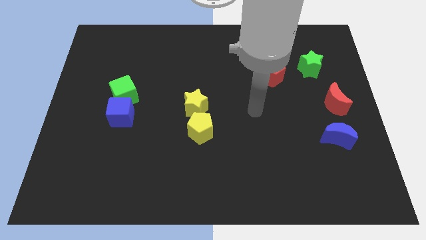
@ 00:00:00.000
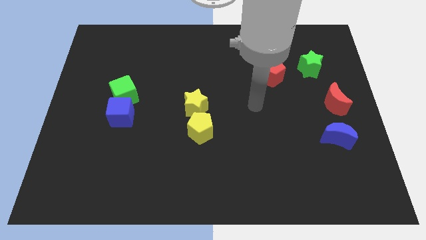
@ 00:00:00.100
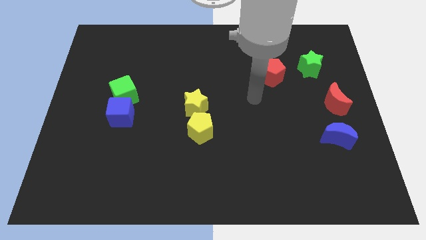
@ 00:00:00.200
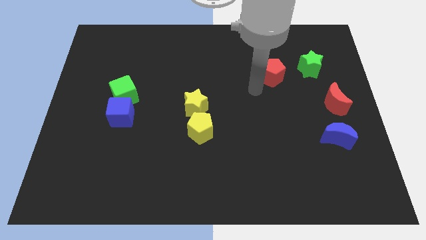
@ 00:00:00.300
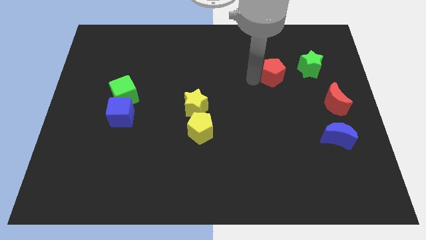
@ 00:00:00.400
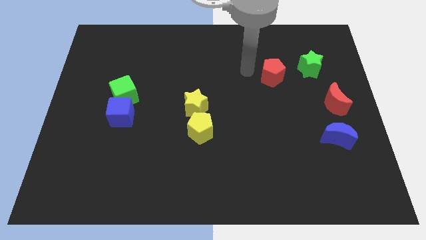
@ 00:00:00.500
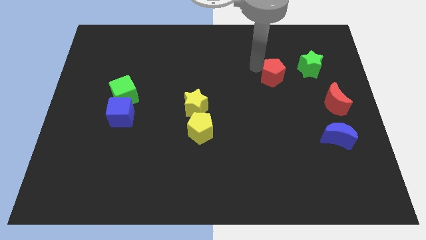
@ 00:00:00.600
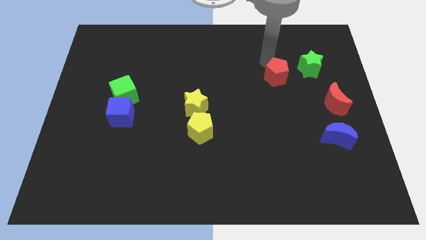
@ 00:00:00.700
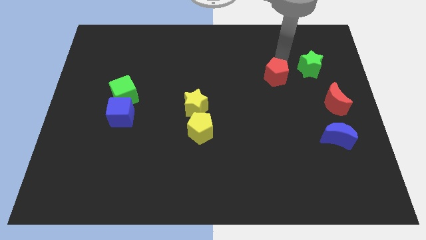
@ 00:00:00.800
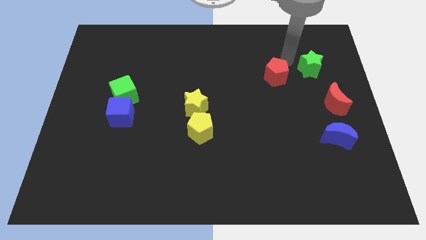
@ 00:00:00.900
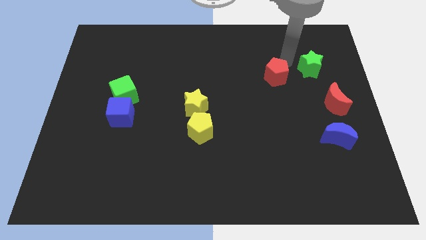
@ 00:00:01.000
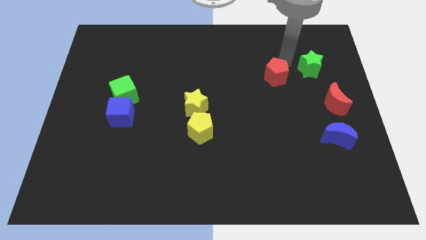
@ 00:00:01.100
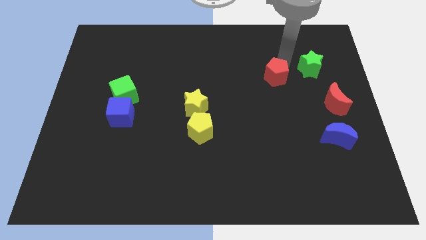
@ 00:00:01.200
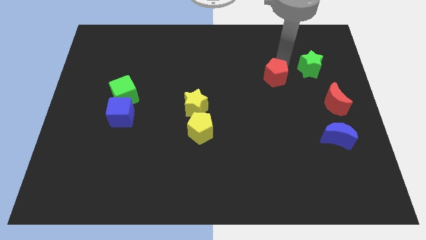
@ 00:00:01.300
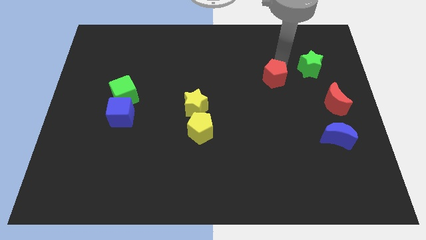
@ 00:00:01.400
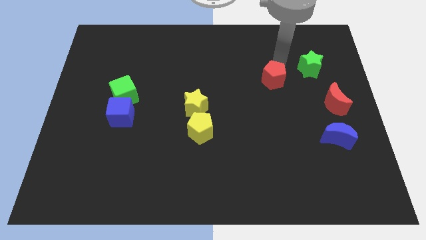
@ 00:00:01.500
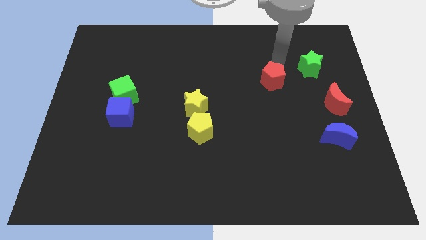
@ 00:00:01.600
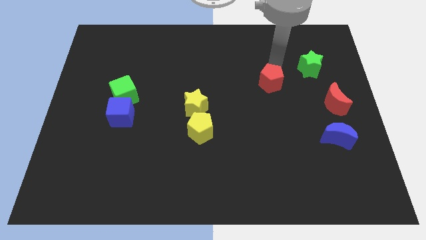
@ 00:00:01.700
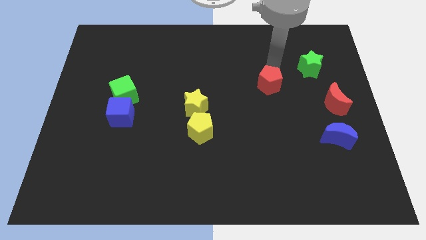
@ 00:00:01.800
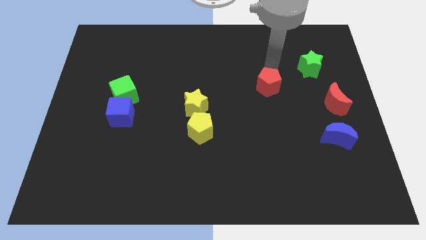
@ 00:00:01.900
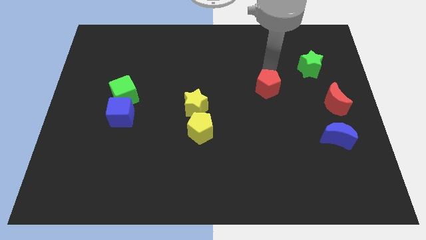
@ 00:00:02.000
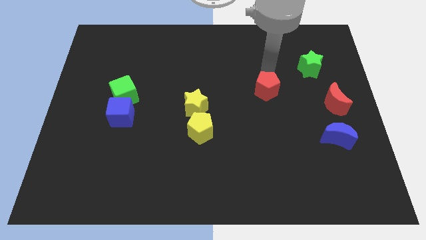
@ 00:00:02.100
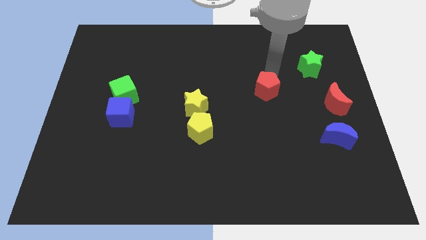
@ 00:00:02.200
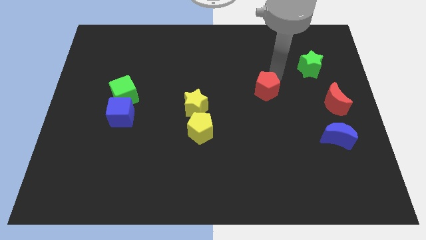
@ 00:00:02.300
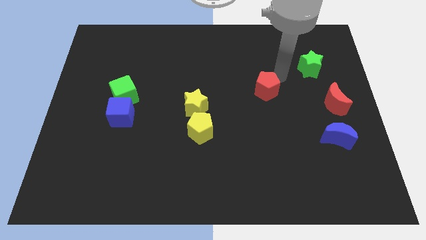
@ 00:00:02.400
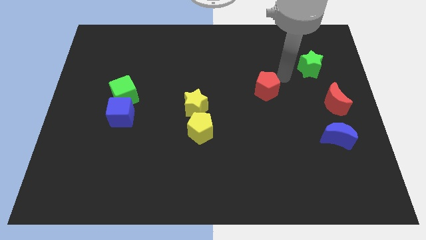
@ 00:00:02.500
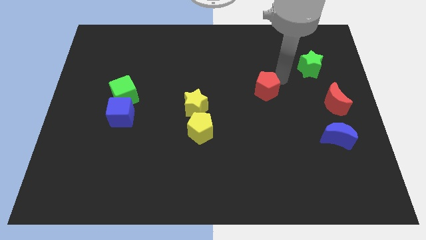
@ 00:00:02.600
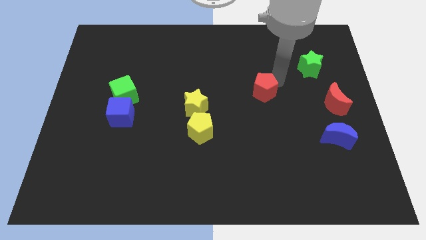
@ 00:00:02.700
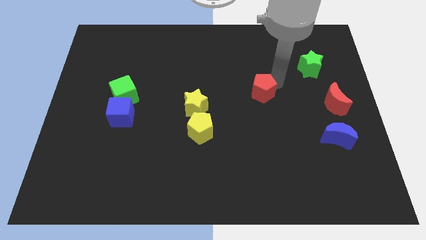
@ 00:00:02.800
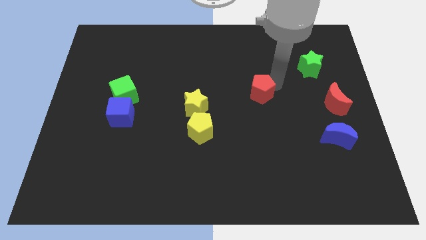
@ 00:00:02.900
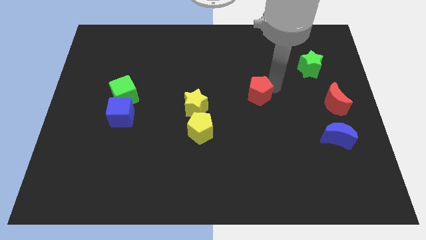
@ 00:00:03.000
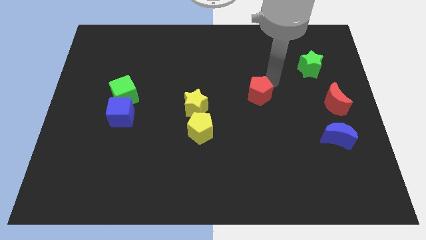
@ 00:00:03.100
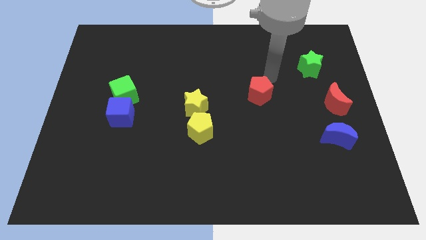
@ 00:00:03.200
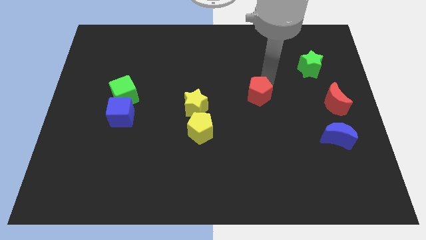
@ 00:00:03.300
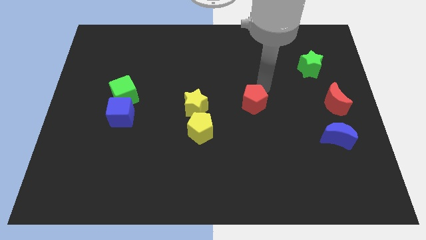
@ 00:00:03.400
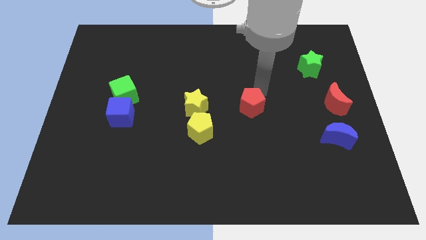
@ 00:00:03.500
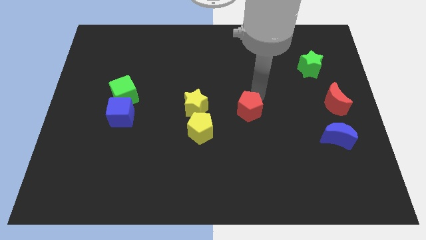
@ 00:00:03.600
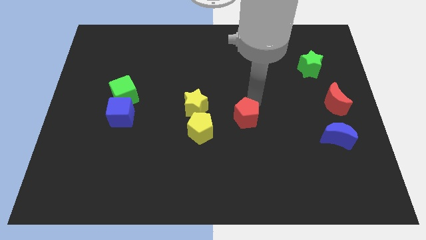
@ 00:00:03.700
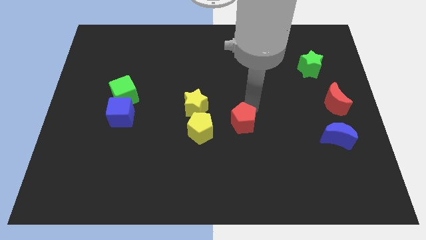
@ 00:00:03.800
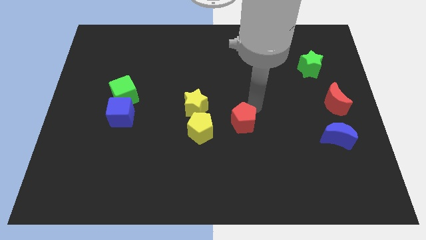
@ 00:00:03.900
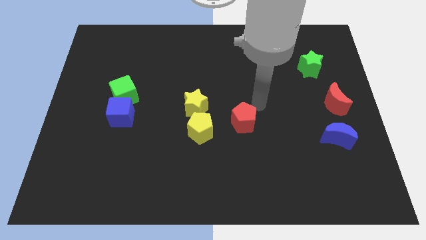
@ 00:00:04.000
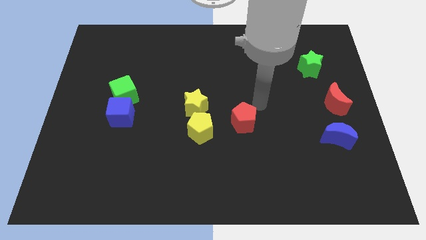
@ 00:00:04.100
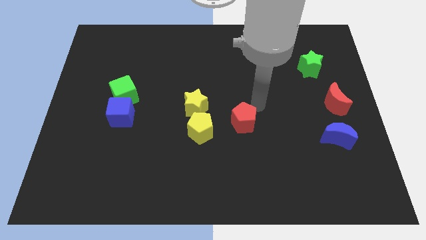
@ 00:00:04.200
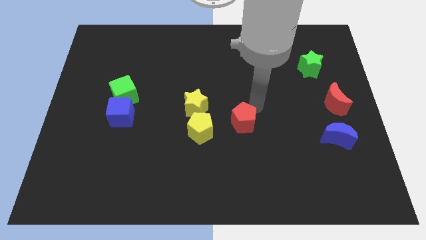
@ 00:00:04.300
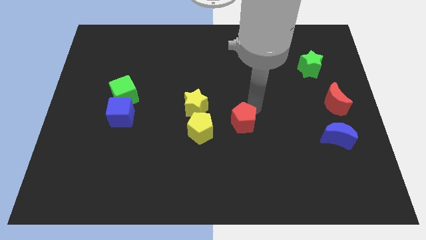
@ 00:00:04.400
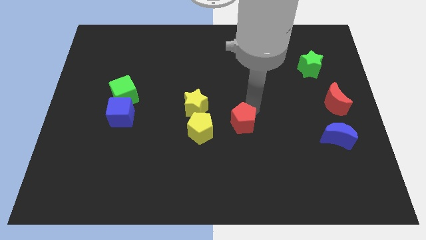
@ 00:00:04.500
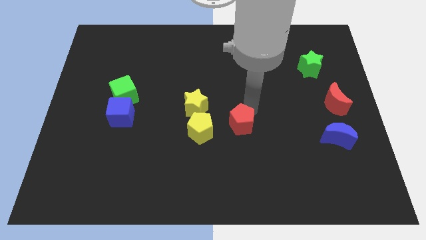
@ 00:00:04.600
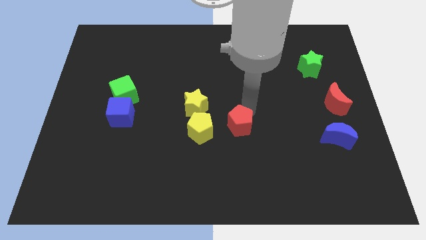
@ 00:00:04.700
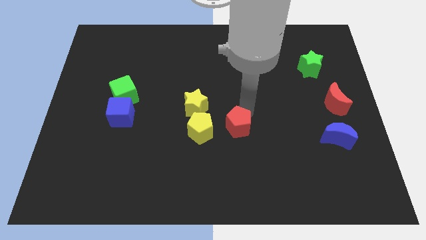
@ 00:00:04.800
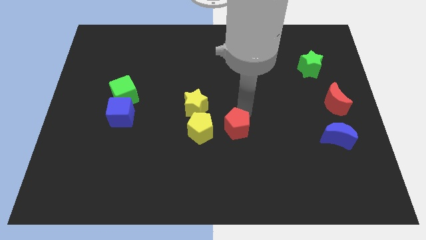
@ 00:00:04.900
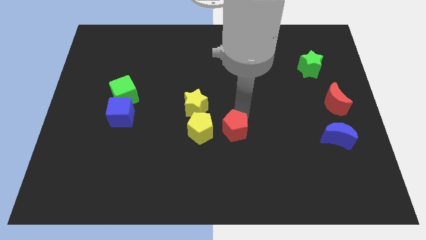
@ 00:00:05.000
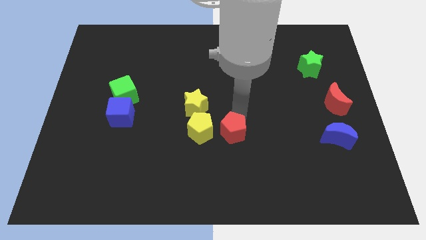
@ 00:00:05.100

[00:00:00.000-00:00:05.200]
push the red pentagon to the bottom right side of the yellow pentagon

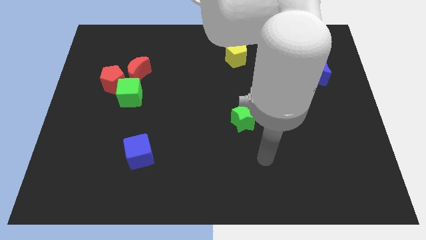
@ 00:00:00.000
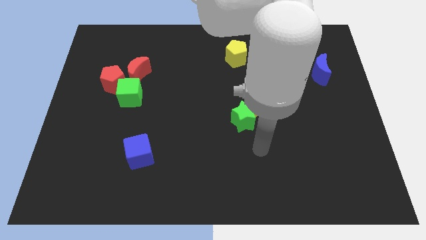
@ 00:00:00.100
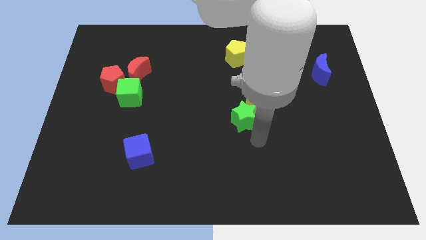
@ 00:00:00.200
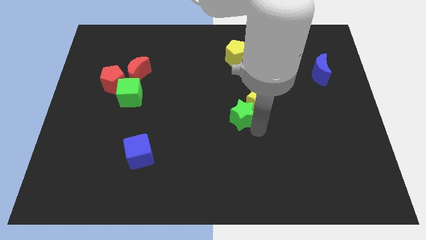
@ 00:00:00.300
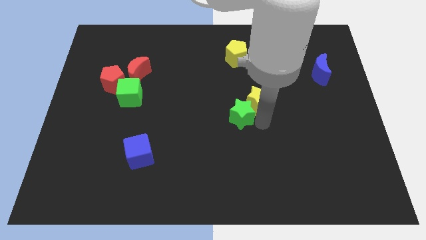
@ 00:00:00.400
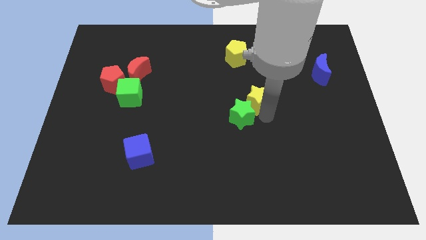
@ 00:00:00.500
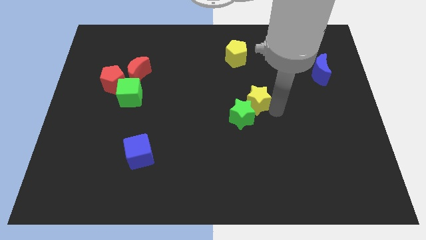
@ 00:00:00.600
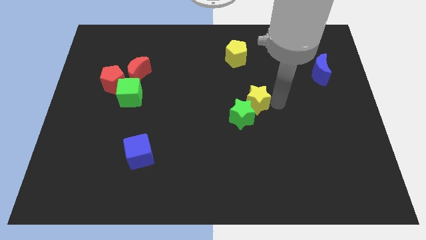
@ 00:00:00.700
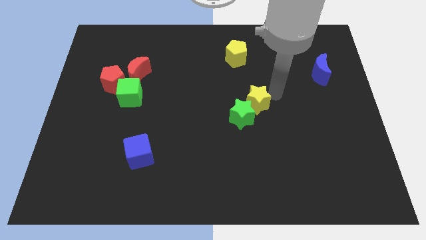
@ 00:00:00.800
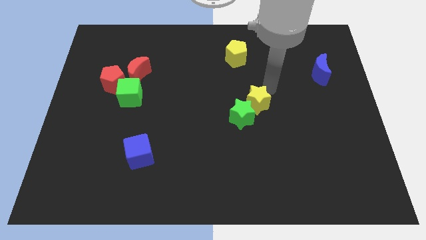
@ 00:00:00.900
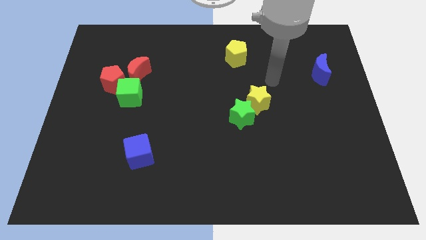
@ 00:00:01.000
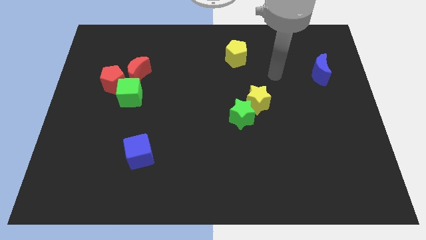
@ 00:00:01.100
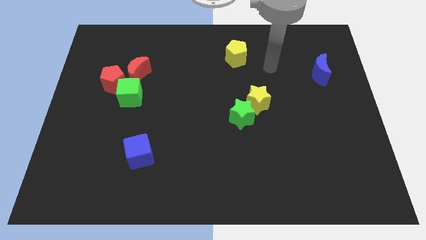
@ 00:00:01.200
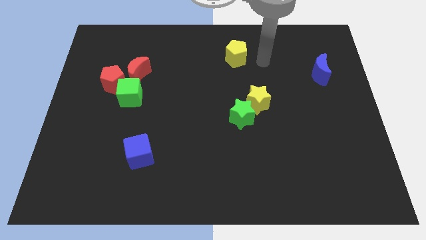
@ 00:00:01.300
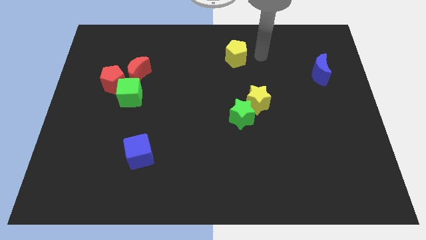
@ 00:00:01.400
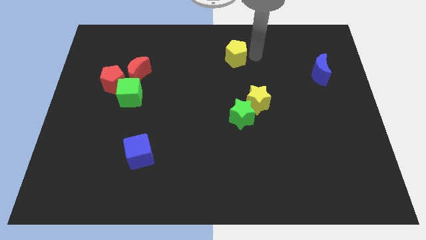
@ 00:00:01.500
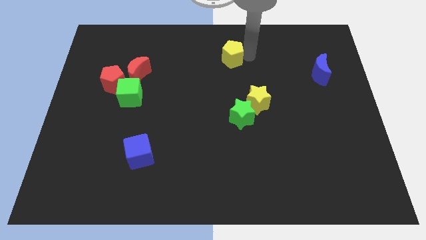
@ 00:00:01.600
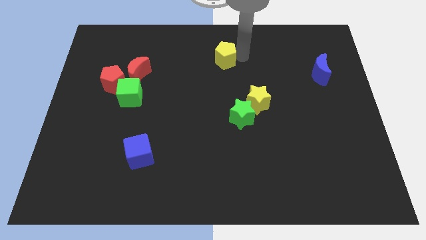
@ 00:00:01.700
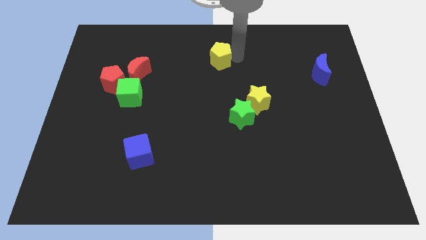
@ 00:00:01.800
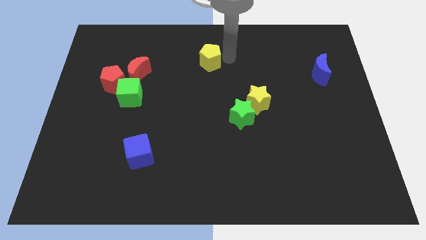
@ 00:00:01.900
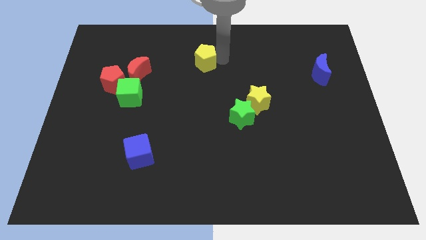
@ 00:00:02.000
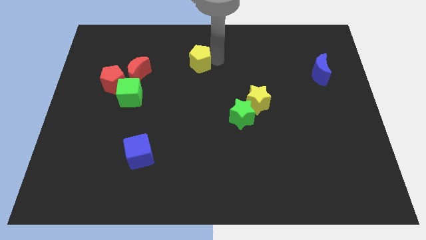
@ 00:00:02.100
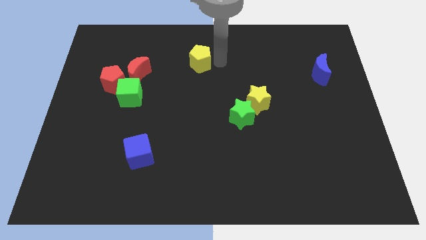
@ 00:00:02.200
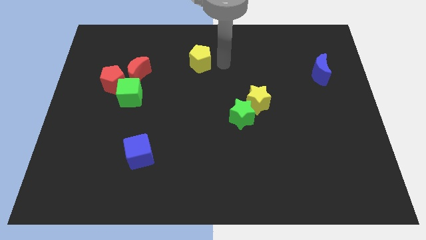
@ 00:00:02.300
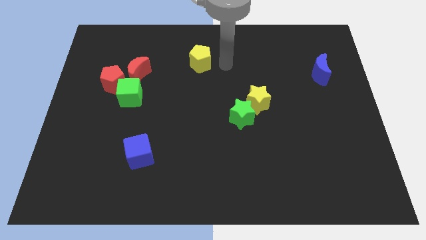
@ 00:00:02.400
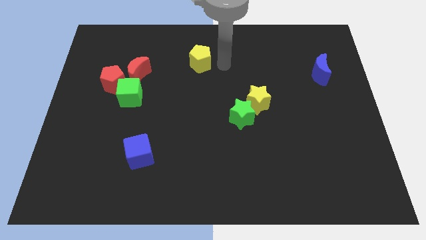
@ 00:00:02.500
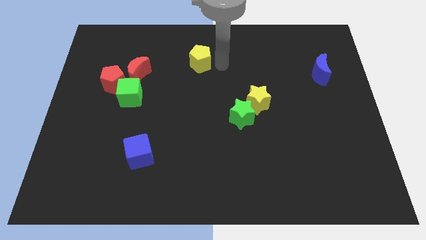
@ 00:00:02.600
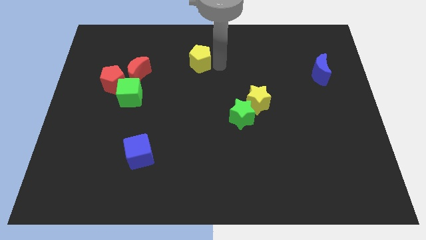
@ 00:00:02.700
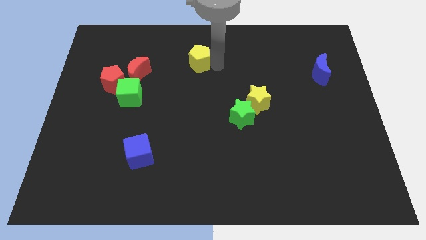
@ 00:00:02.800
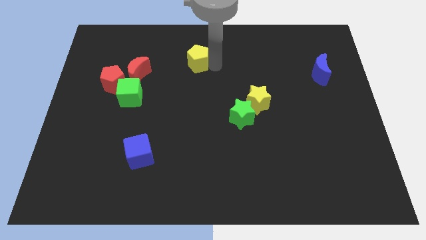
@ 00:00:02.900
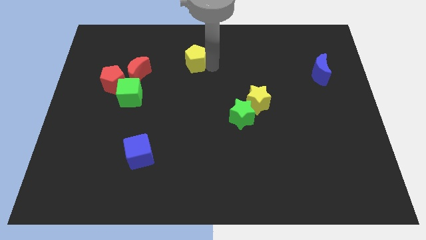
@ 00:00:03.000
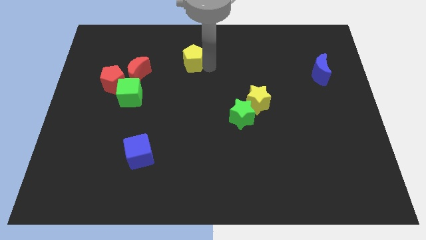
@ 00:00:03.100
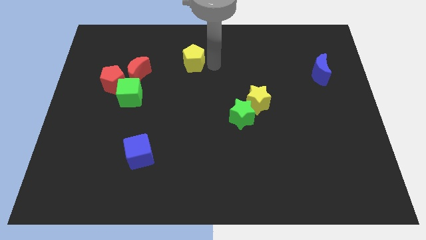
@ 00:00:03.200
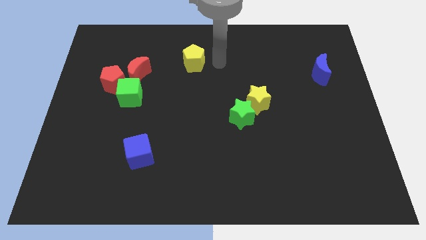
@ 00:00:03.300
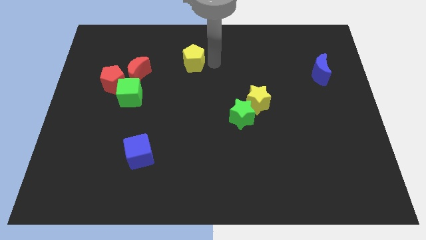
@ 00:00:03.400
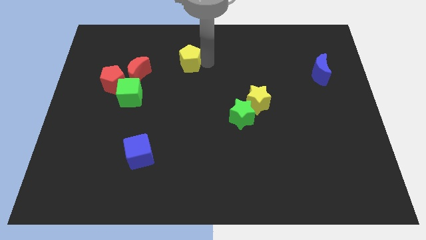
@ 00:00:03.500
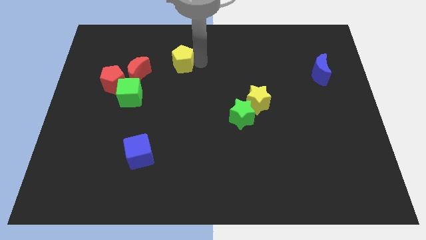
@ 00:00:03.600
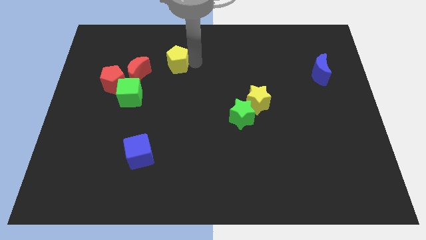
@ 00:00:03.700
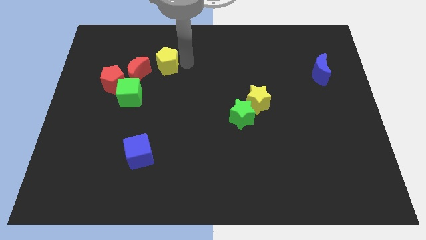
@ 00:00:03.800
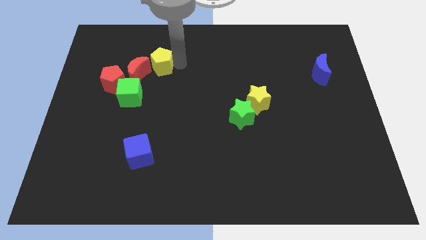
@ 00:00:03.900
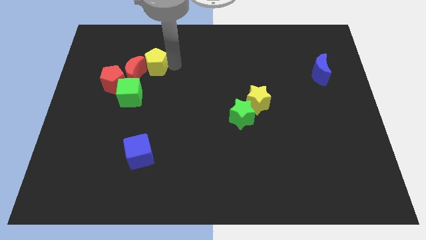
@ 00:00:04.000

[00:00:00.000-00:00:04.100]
put the yellow pentagon to the top right of the red pentagon
